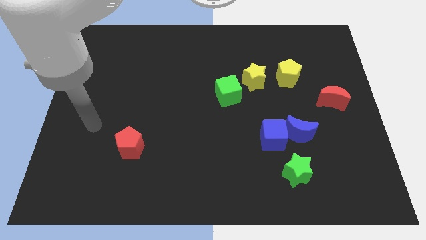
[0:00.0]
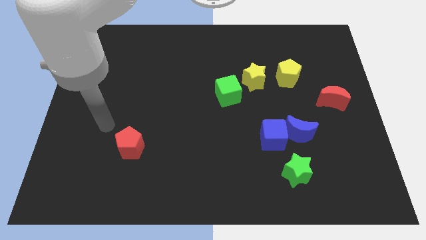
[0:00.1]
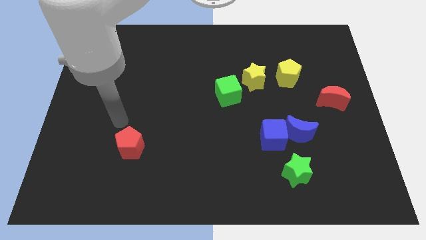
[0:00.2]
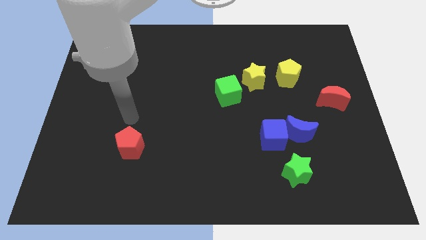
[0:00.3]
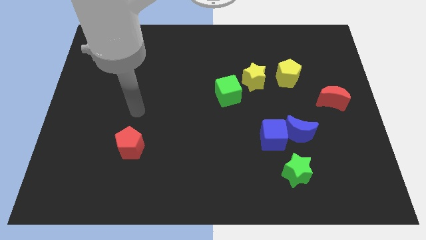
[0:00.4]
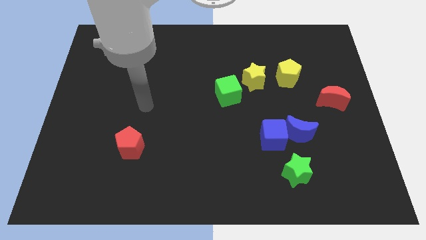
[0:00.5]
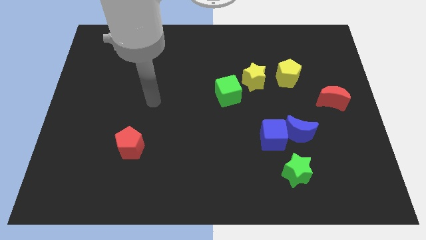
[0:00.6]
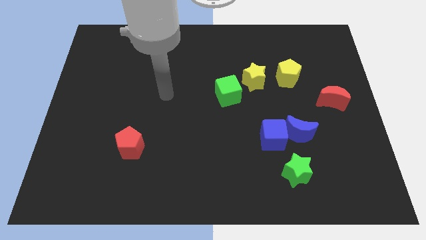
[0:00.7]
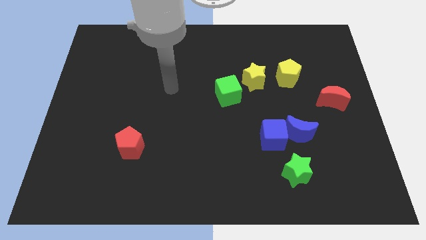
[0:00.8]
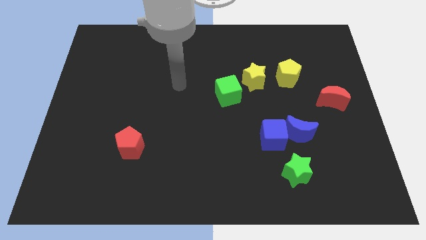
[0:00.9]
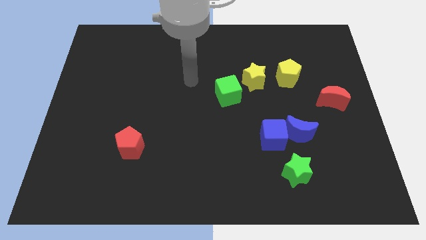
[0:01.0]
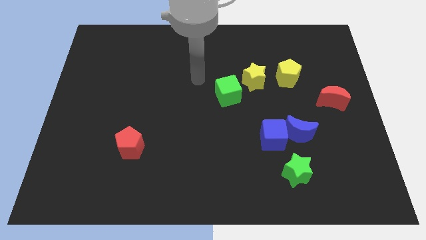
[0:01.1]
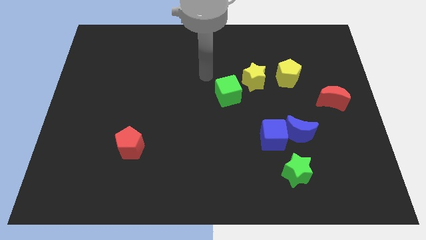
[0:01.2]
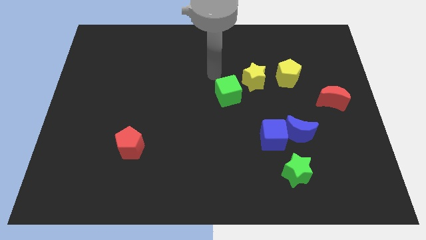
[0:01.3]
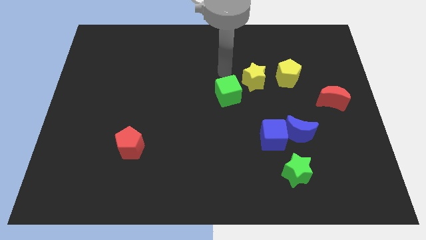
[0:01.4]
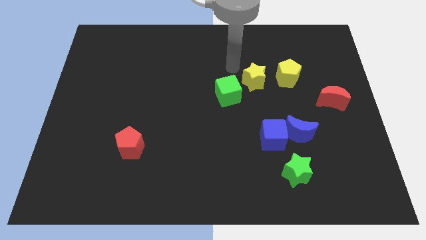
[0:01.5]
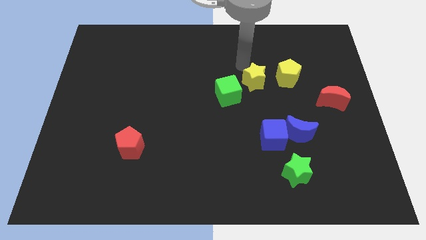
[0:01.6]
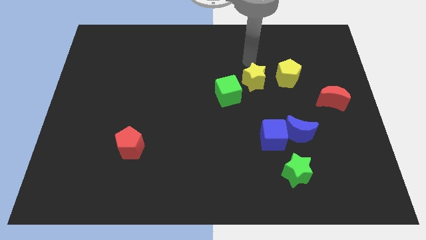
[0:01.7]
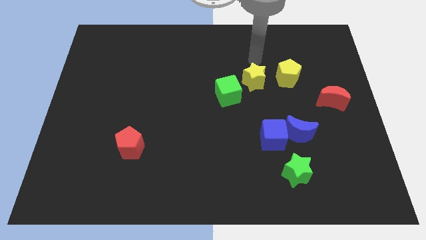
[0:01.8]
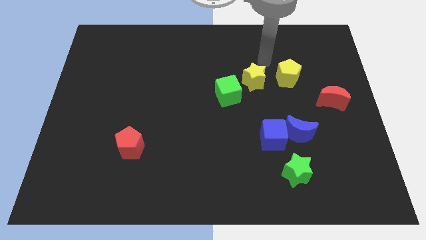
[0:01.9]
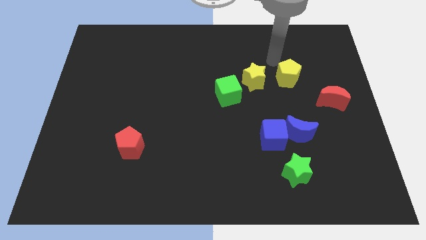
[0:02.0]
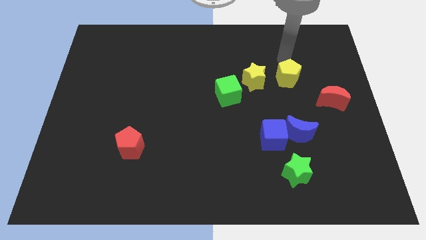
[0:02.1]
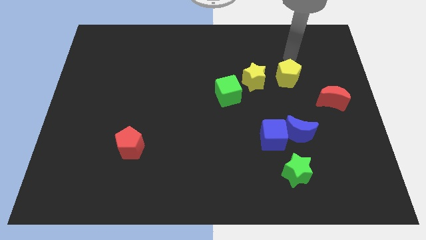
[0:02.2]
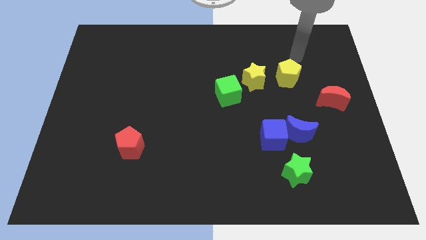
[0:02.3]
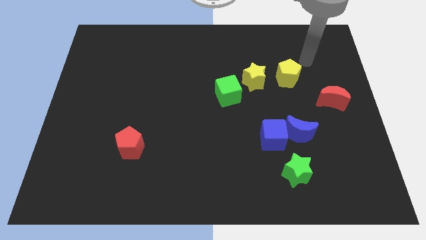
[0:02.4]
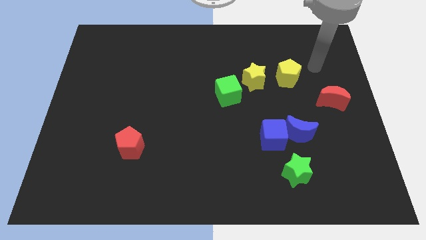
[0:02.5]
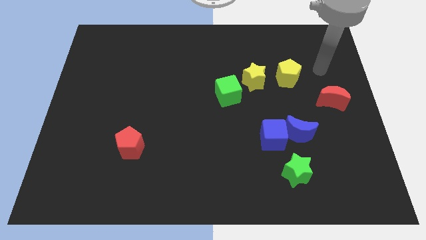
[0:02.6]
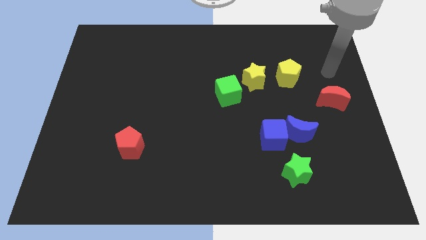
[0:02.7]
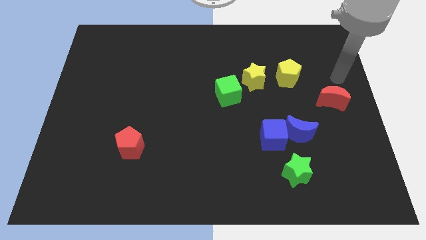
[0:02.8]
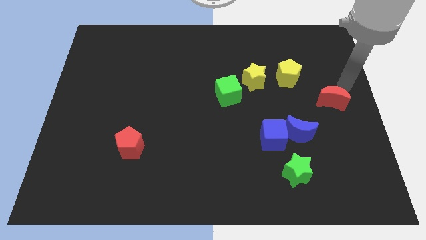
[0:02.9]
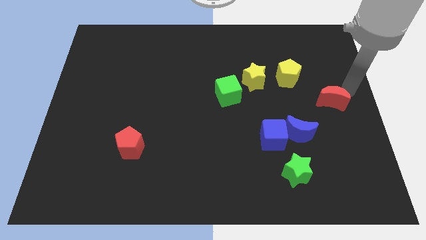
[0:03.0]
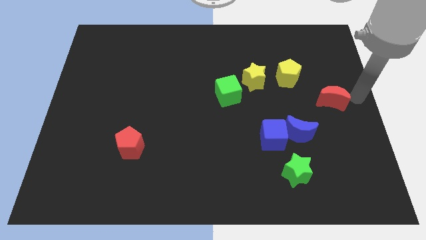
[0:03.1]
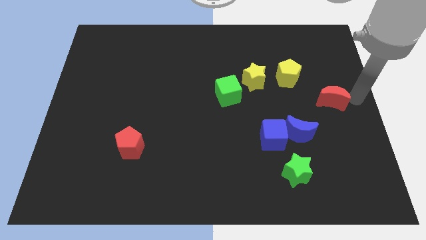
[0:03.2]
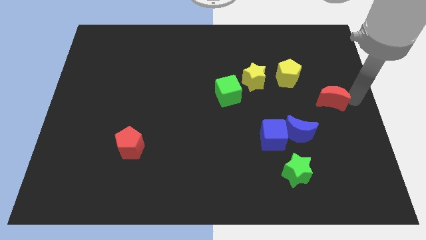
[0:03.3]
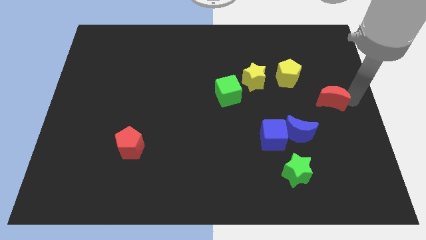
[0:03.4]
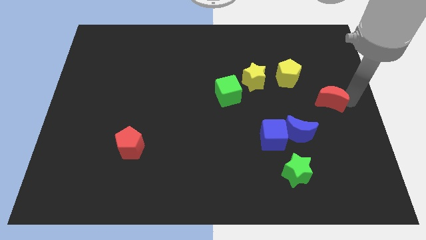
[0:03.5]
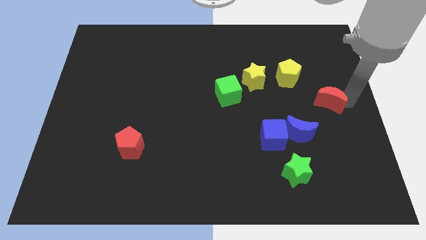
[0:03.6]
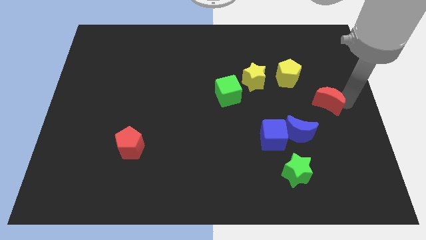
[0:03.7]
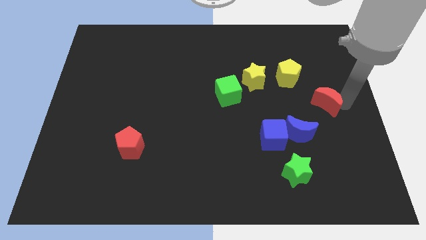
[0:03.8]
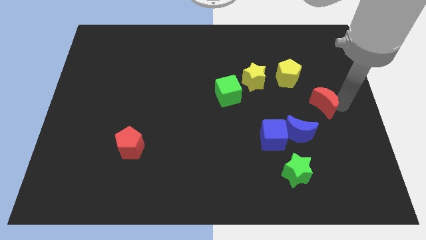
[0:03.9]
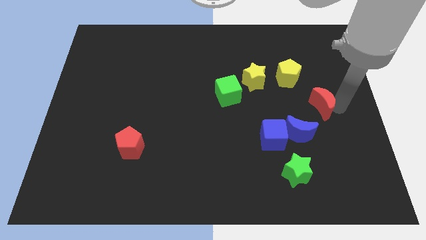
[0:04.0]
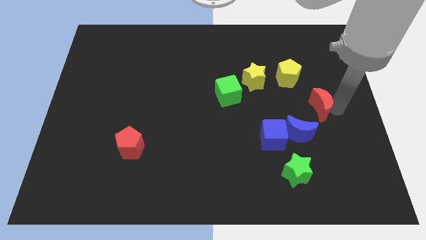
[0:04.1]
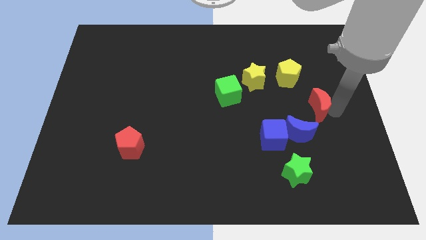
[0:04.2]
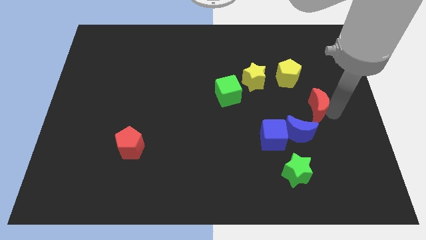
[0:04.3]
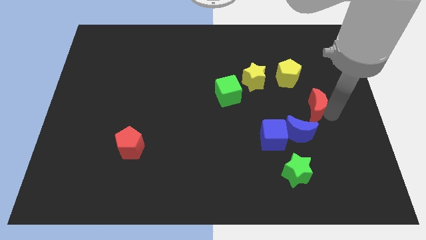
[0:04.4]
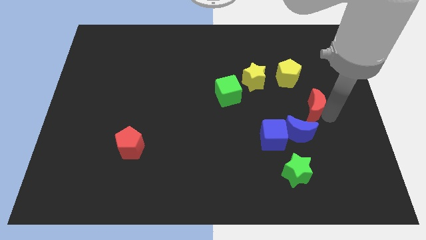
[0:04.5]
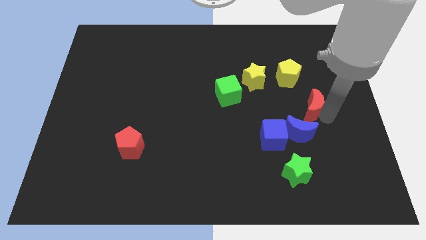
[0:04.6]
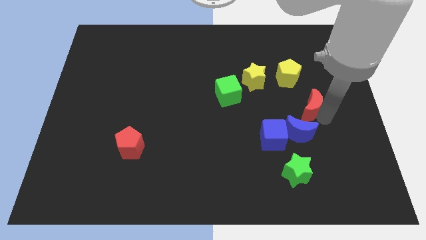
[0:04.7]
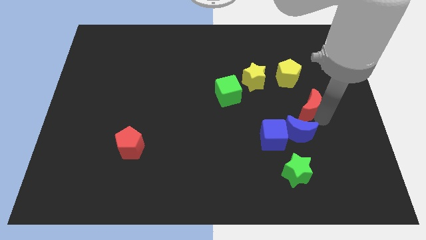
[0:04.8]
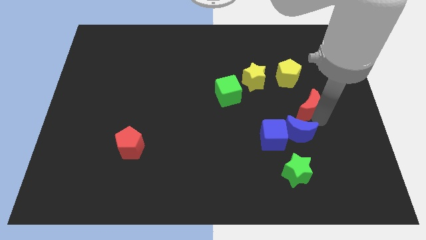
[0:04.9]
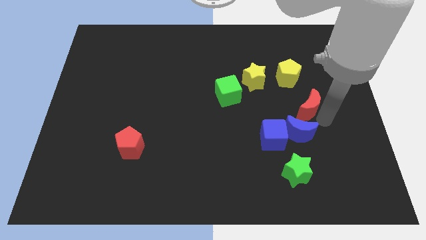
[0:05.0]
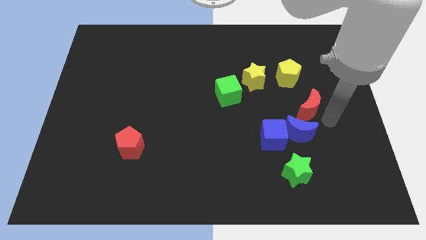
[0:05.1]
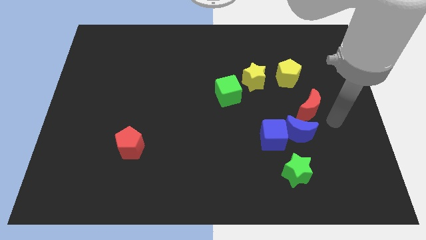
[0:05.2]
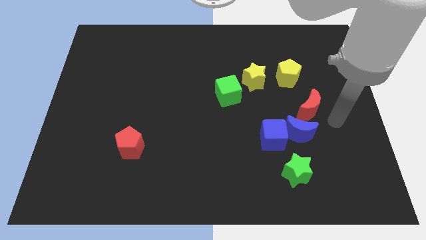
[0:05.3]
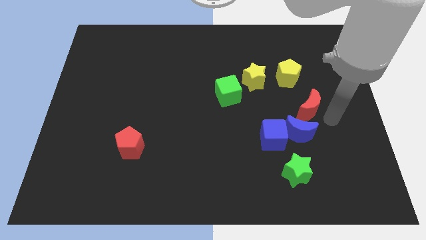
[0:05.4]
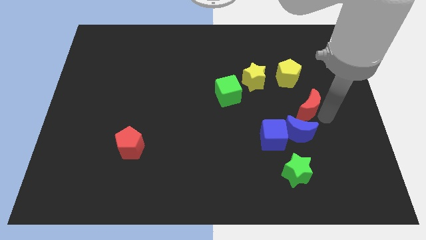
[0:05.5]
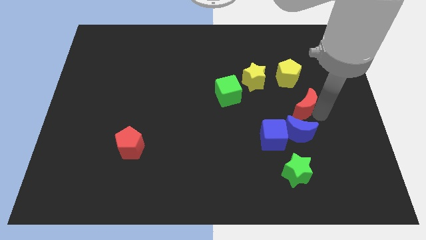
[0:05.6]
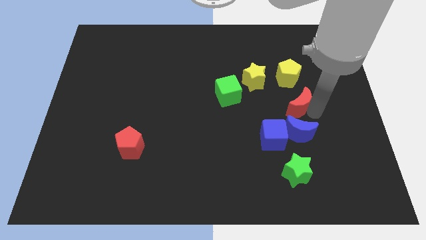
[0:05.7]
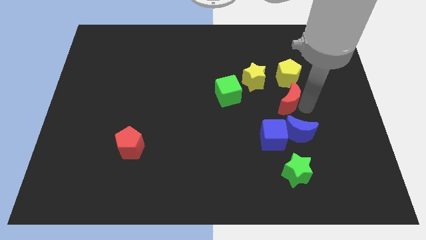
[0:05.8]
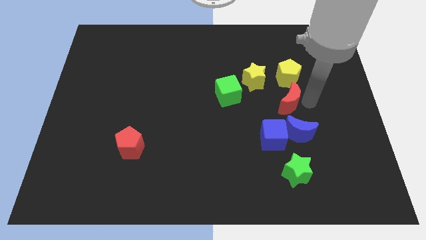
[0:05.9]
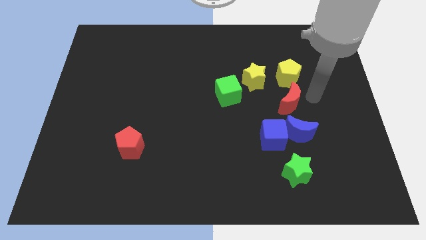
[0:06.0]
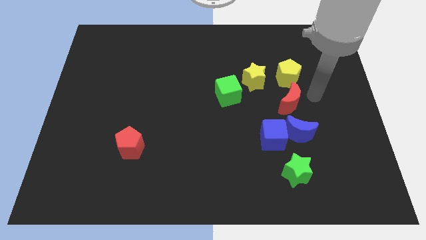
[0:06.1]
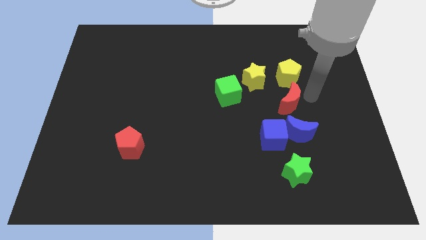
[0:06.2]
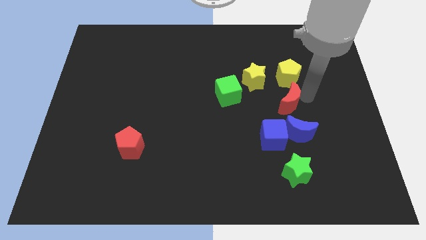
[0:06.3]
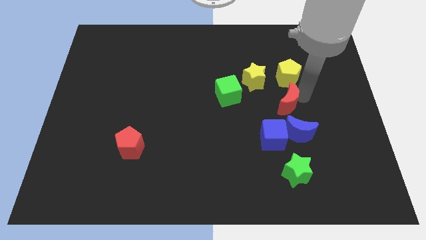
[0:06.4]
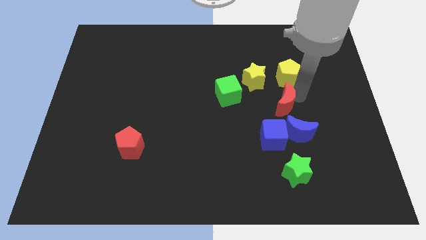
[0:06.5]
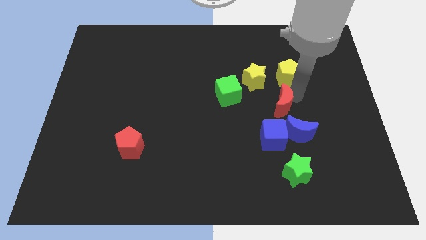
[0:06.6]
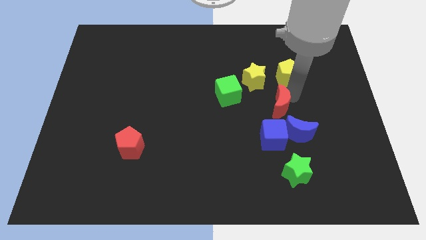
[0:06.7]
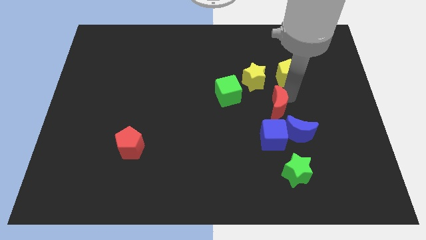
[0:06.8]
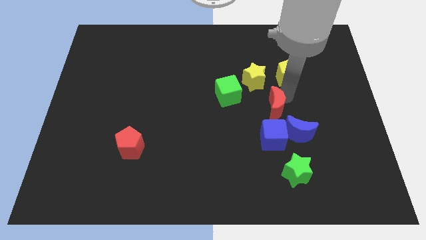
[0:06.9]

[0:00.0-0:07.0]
push the red moon to the bottom side of the yellow star
